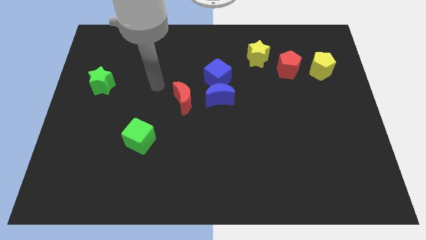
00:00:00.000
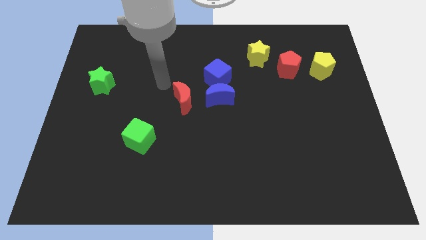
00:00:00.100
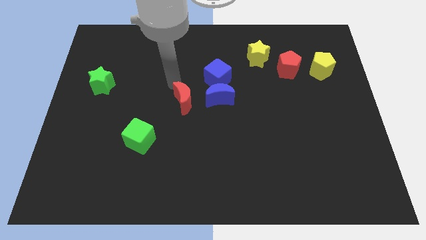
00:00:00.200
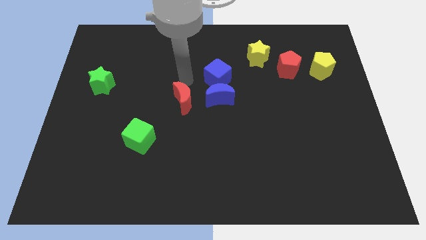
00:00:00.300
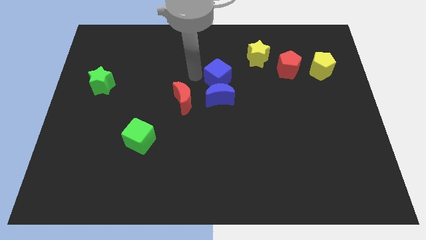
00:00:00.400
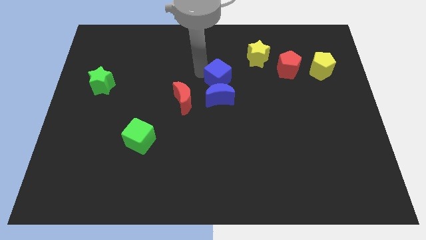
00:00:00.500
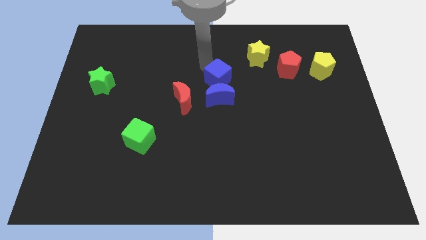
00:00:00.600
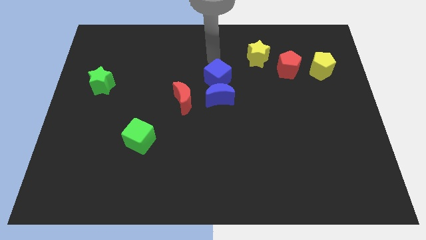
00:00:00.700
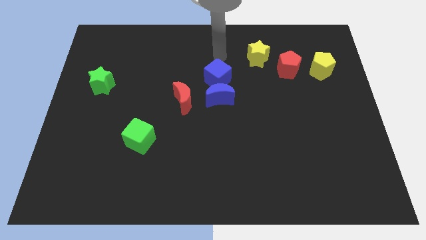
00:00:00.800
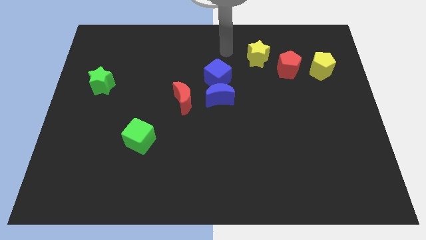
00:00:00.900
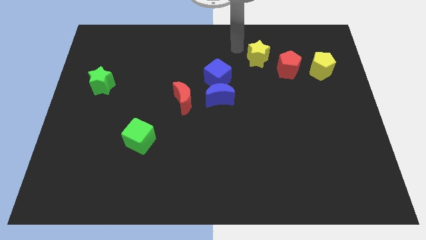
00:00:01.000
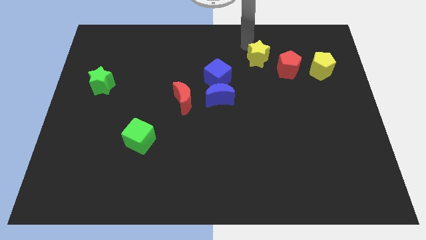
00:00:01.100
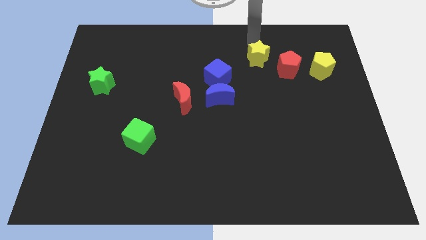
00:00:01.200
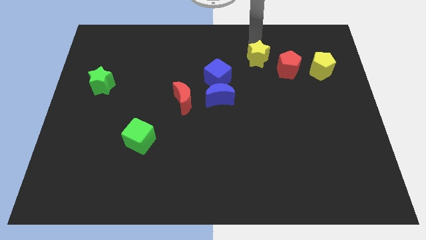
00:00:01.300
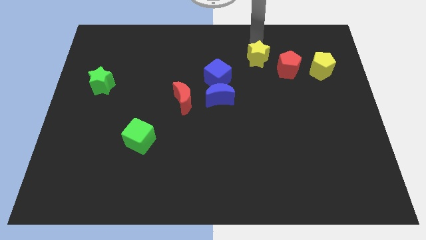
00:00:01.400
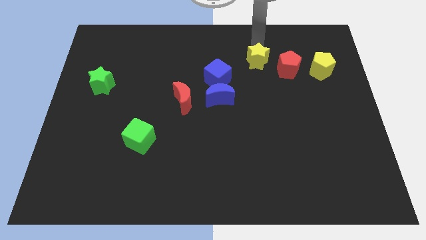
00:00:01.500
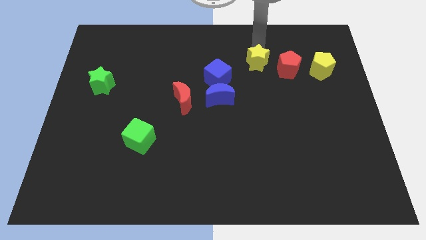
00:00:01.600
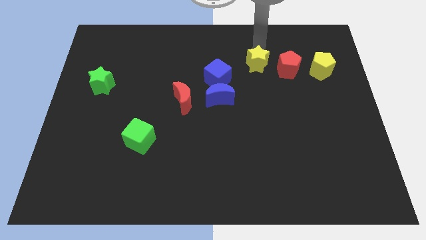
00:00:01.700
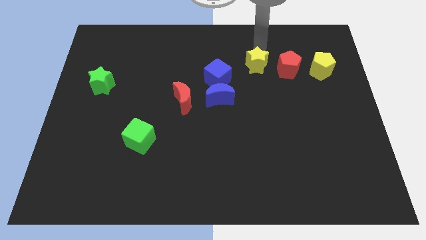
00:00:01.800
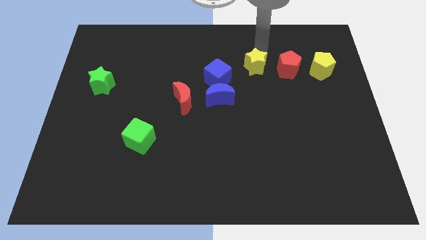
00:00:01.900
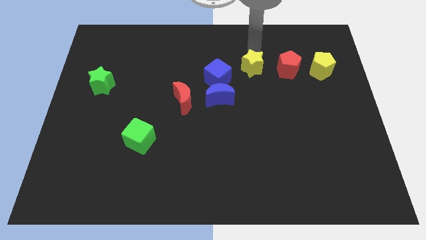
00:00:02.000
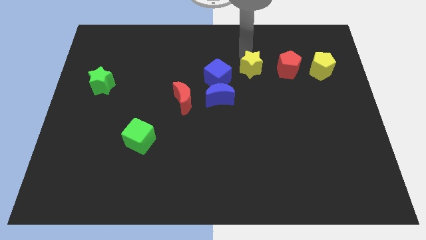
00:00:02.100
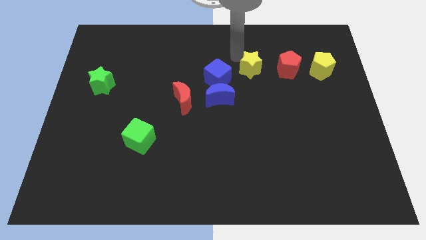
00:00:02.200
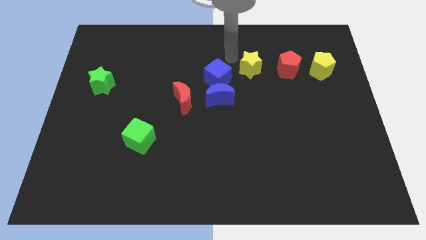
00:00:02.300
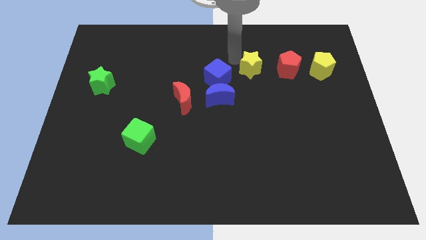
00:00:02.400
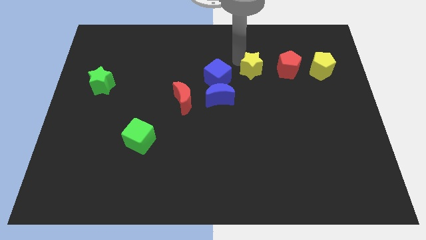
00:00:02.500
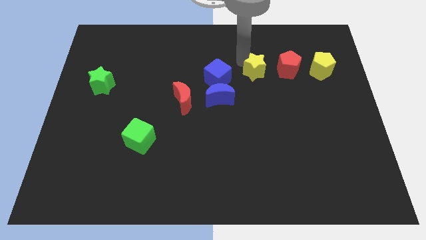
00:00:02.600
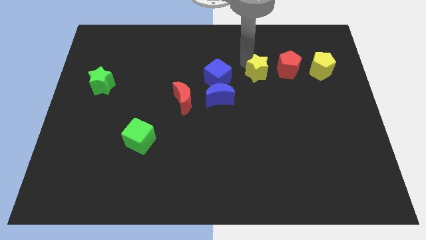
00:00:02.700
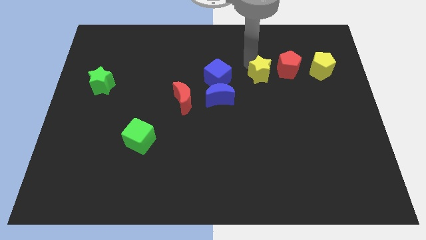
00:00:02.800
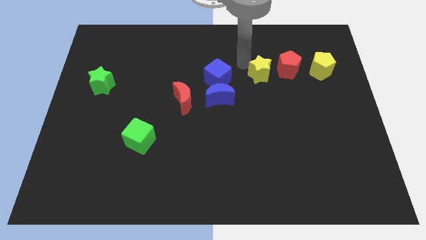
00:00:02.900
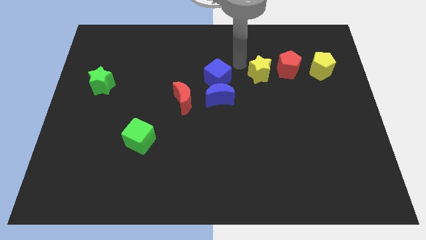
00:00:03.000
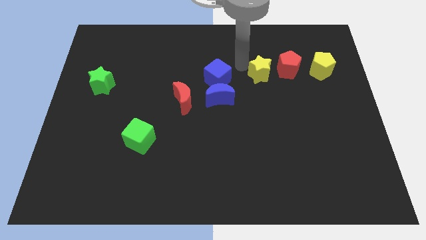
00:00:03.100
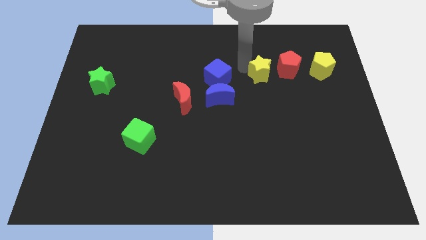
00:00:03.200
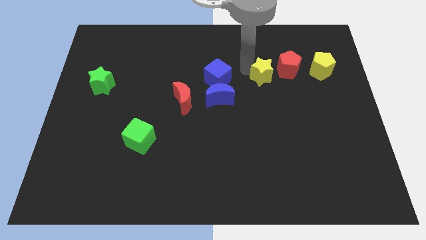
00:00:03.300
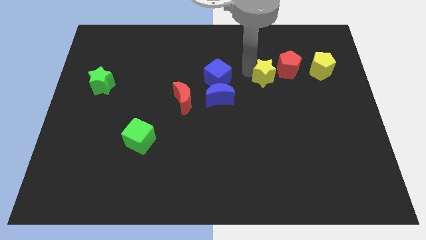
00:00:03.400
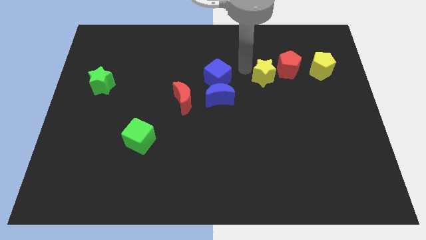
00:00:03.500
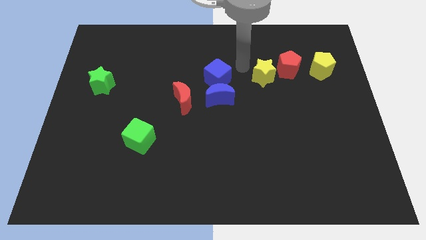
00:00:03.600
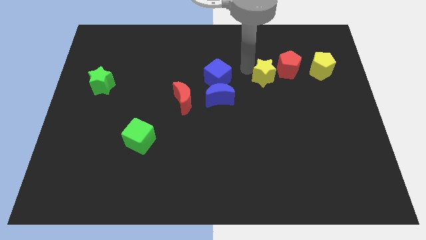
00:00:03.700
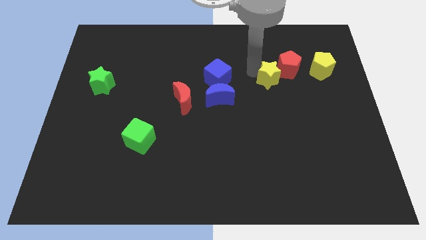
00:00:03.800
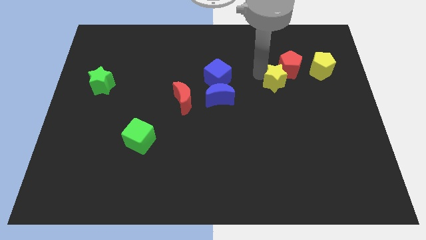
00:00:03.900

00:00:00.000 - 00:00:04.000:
slightly move the yellow star downwards and to the right

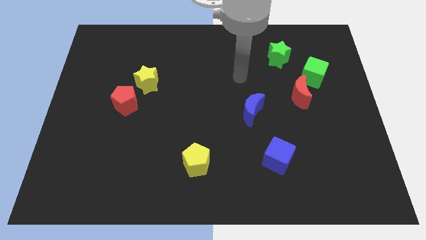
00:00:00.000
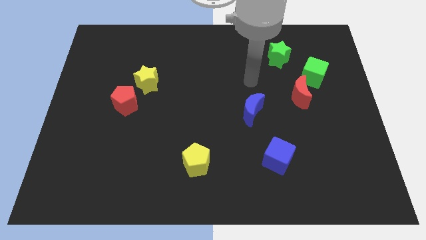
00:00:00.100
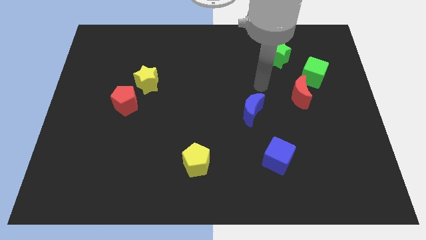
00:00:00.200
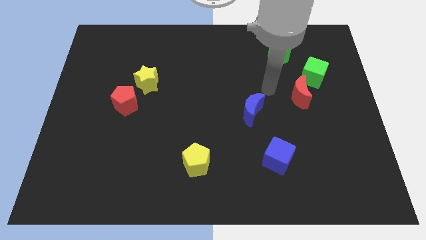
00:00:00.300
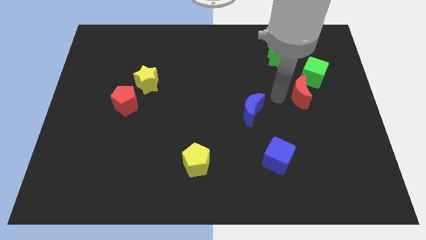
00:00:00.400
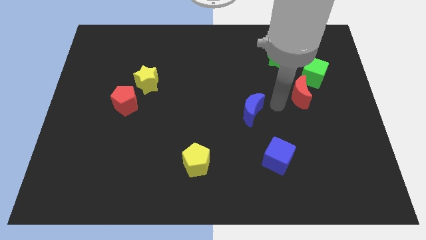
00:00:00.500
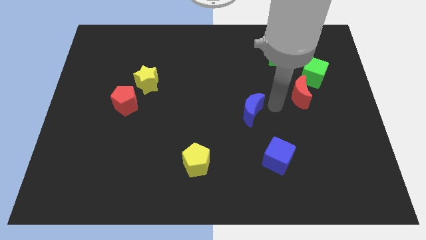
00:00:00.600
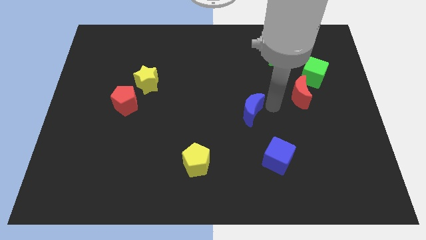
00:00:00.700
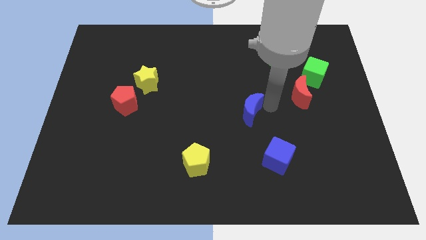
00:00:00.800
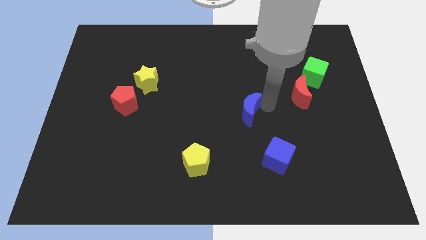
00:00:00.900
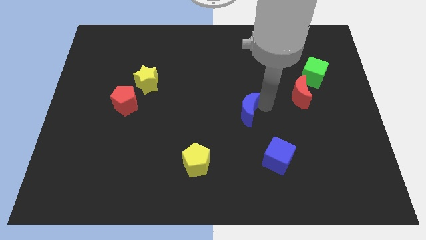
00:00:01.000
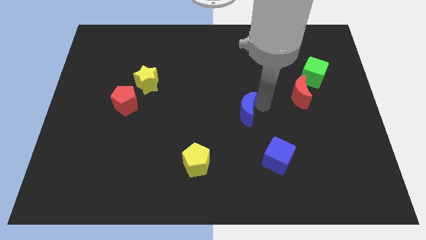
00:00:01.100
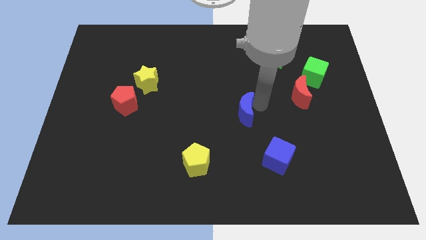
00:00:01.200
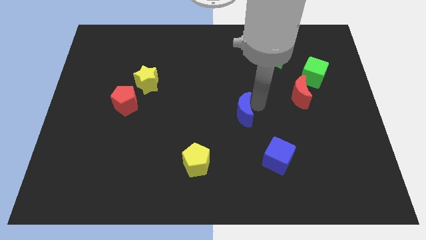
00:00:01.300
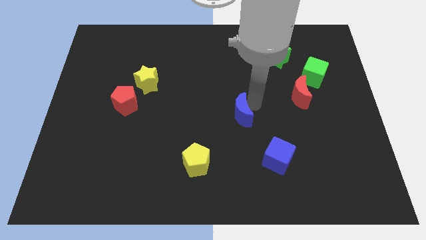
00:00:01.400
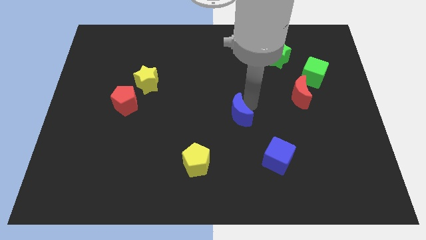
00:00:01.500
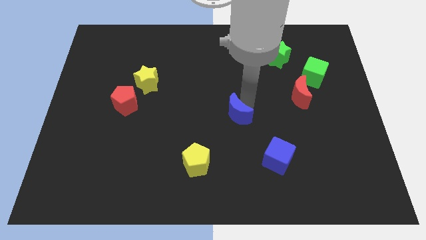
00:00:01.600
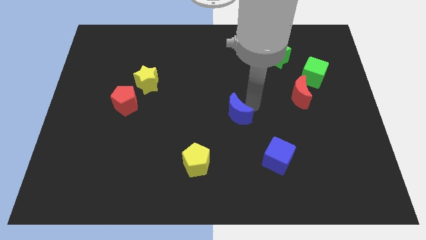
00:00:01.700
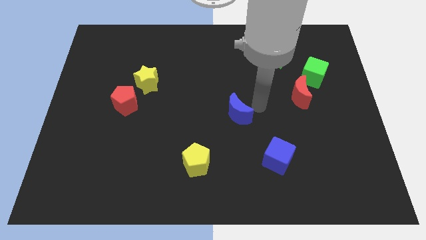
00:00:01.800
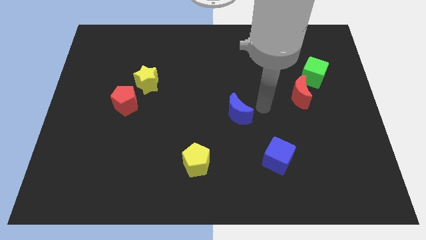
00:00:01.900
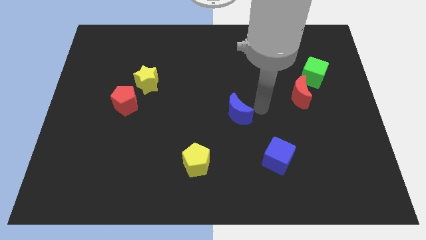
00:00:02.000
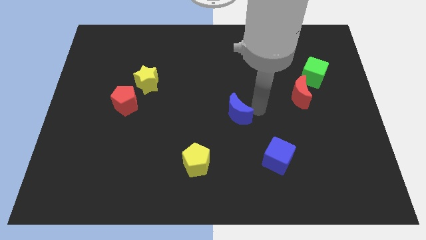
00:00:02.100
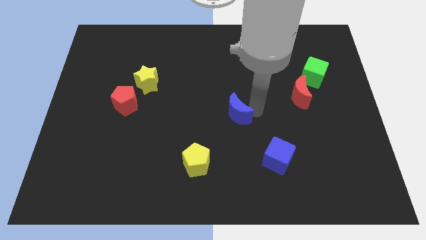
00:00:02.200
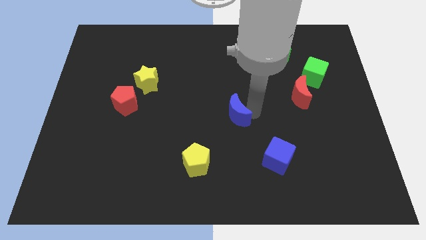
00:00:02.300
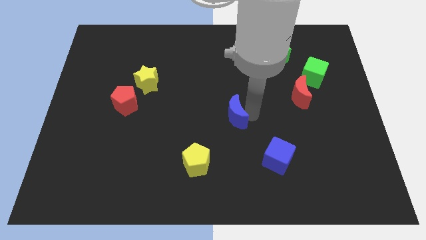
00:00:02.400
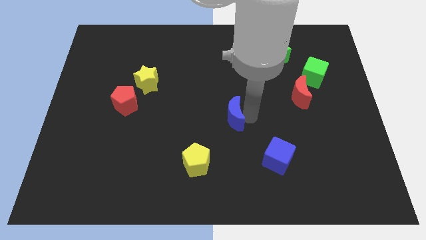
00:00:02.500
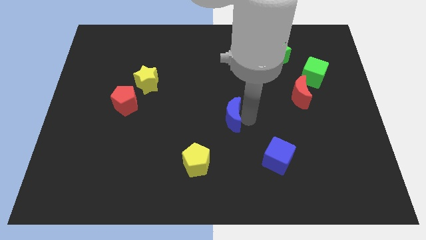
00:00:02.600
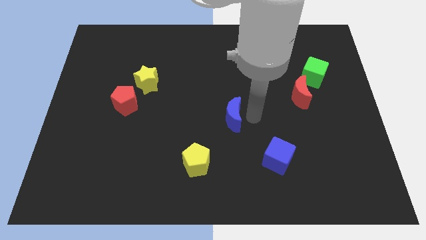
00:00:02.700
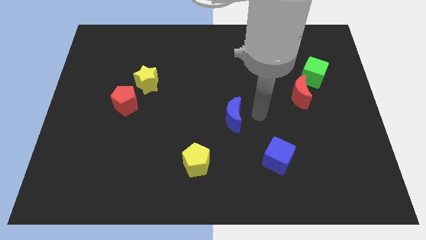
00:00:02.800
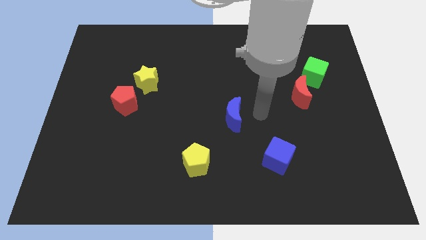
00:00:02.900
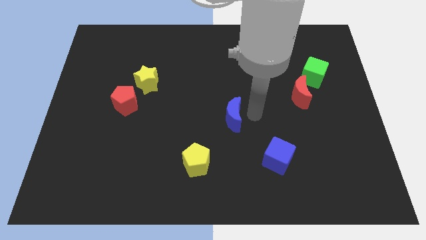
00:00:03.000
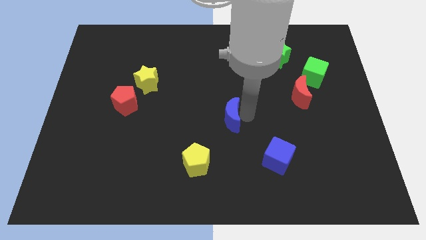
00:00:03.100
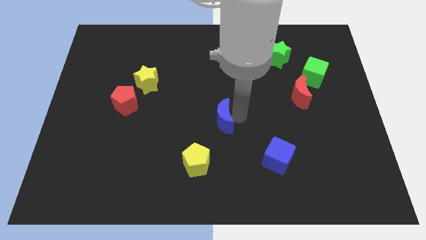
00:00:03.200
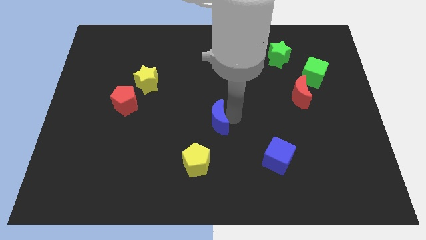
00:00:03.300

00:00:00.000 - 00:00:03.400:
slightly move the blue moon to the left

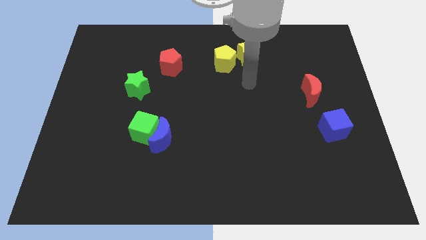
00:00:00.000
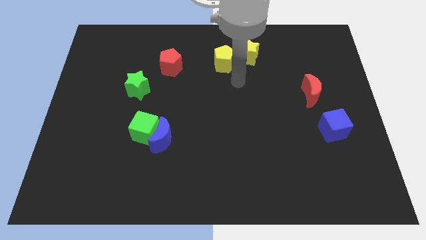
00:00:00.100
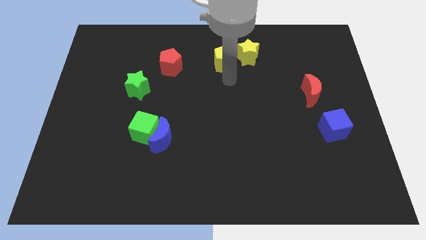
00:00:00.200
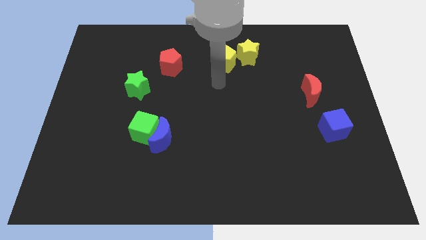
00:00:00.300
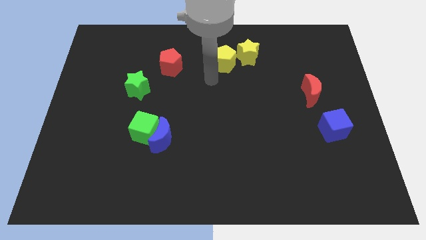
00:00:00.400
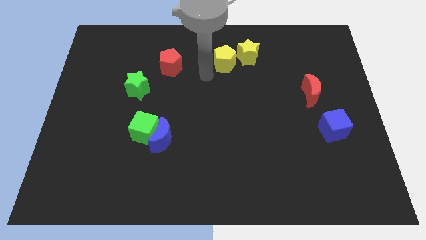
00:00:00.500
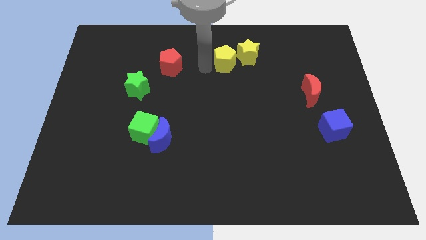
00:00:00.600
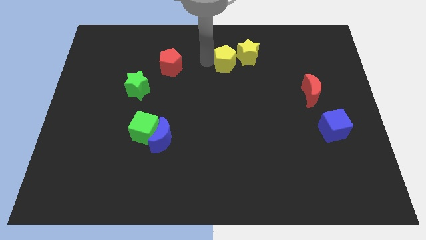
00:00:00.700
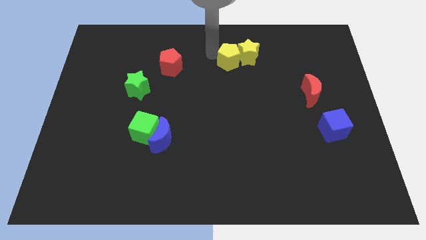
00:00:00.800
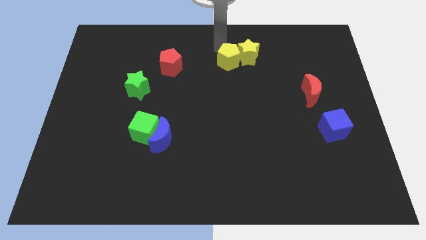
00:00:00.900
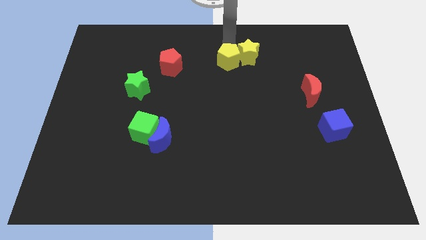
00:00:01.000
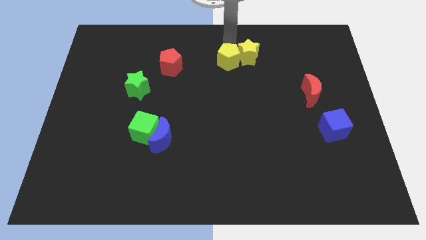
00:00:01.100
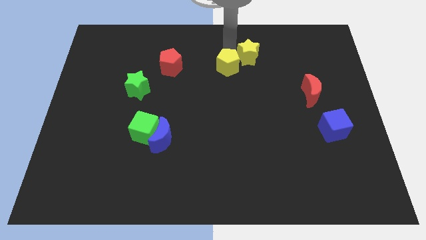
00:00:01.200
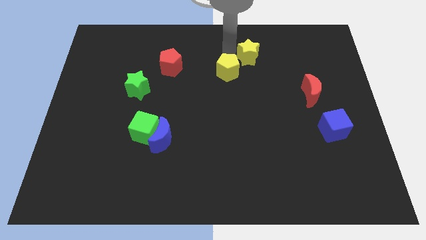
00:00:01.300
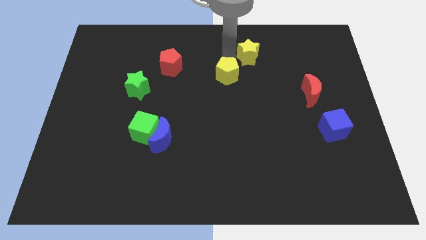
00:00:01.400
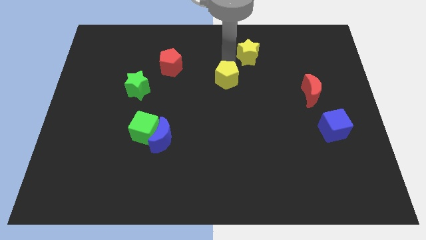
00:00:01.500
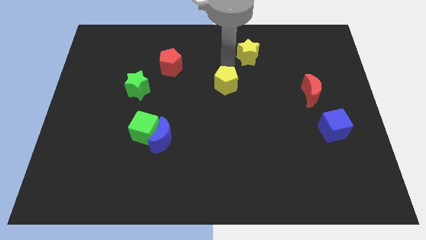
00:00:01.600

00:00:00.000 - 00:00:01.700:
slightly slide the yellow pentagon down
